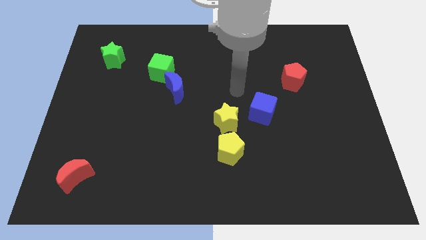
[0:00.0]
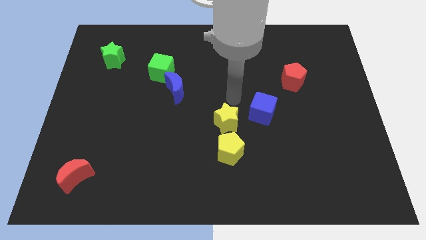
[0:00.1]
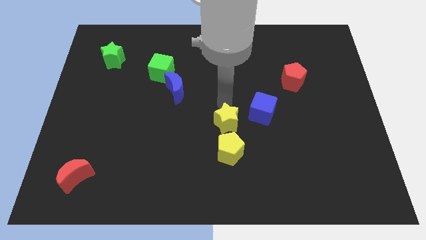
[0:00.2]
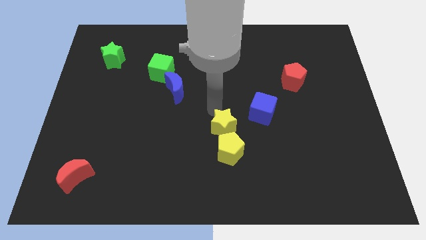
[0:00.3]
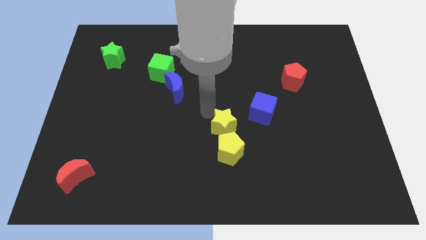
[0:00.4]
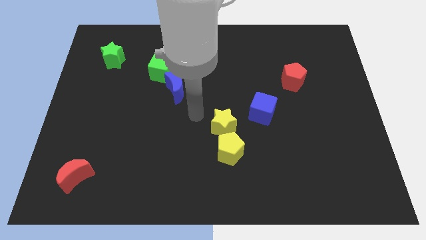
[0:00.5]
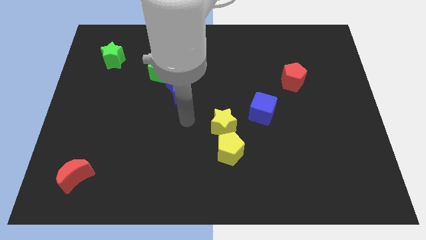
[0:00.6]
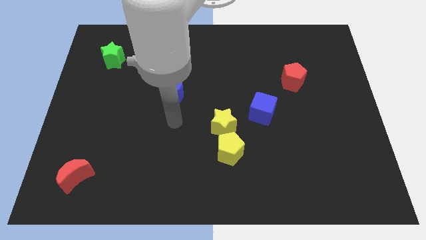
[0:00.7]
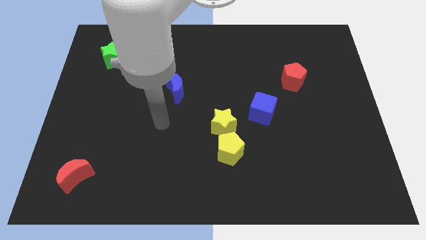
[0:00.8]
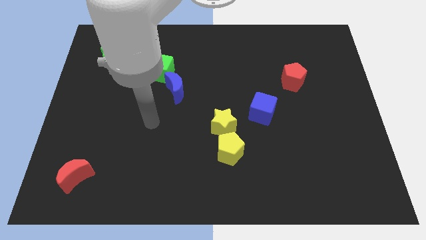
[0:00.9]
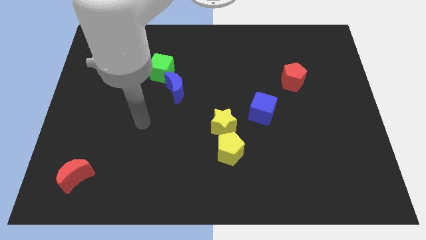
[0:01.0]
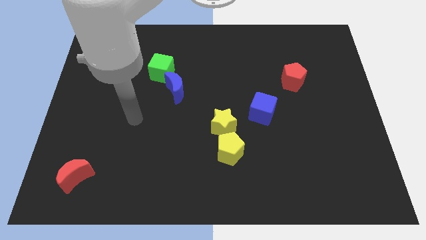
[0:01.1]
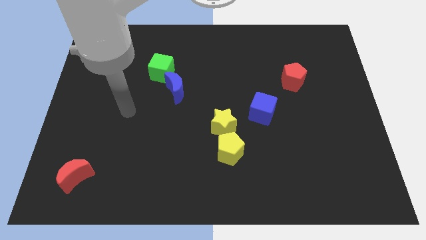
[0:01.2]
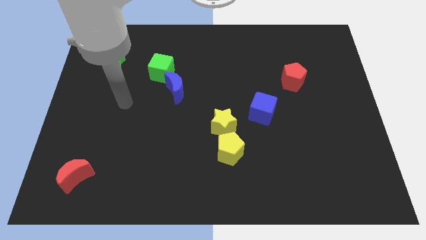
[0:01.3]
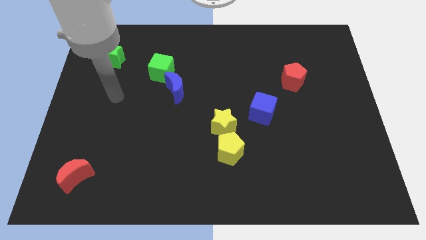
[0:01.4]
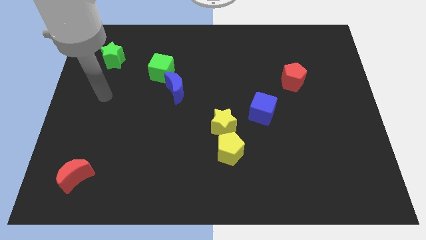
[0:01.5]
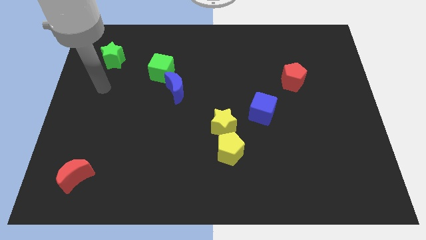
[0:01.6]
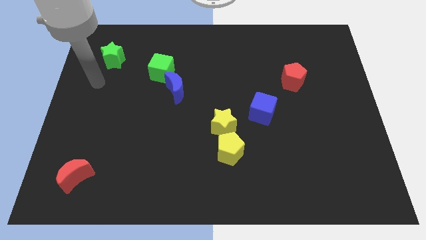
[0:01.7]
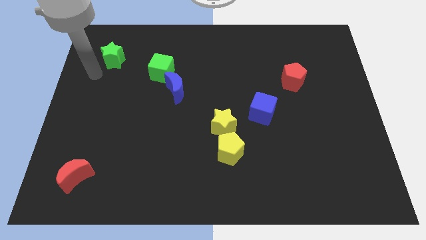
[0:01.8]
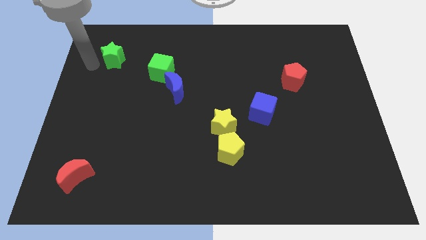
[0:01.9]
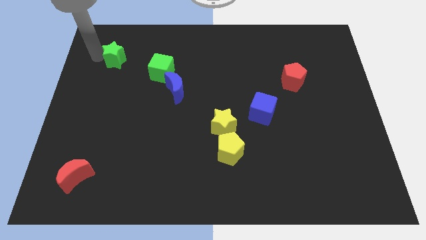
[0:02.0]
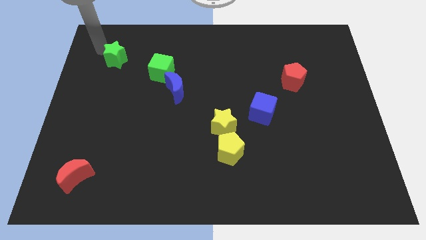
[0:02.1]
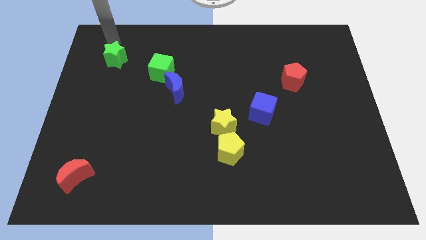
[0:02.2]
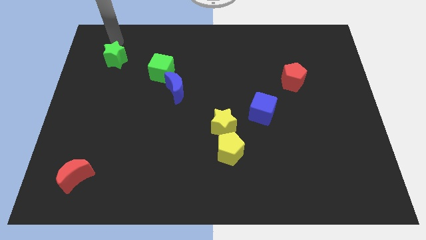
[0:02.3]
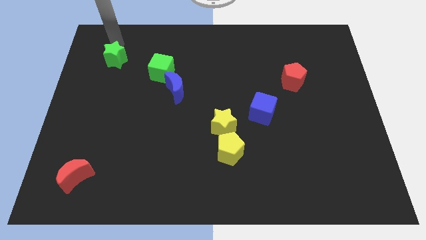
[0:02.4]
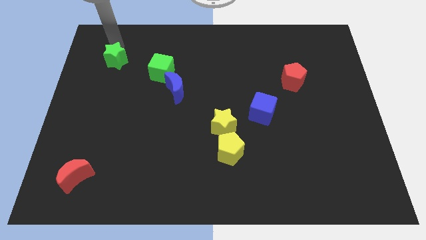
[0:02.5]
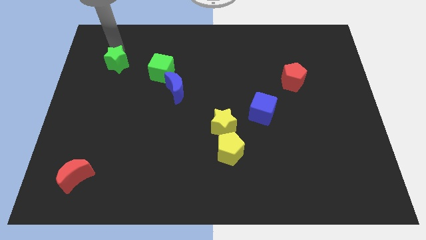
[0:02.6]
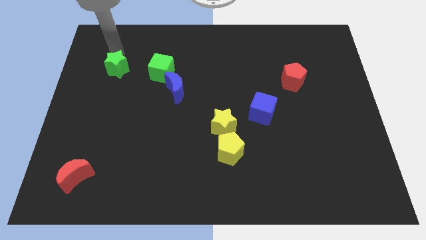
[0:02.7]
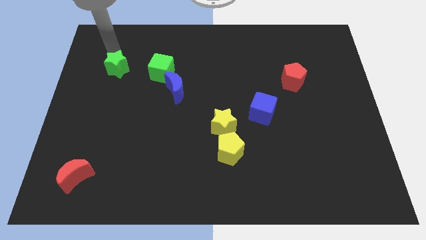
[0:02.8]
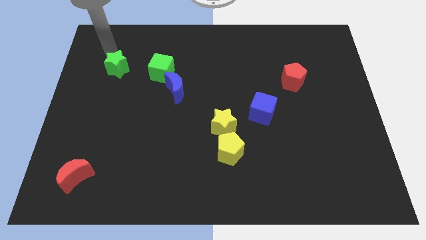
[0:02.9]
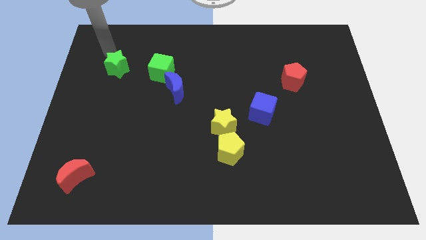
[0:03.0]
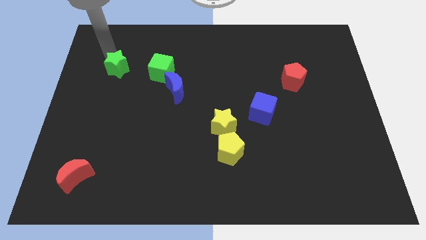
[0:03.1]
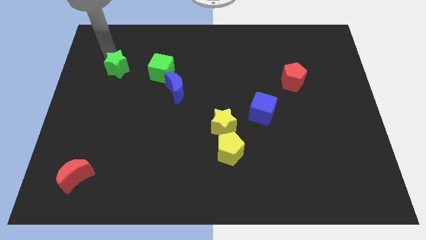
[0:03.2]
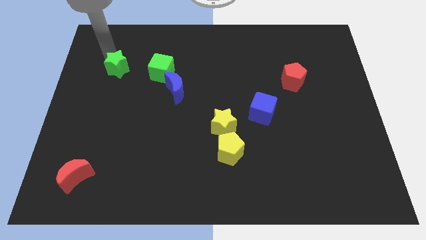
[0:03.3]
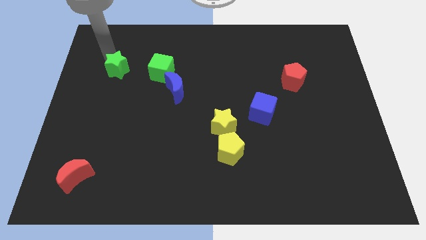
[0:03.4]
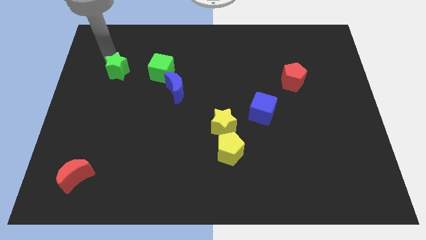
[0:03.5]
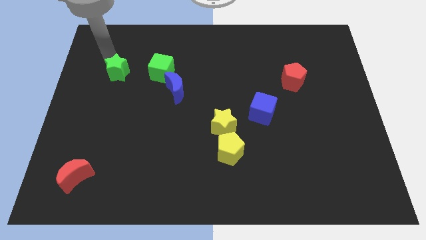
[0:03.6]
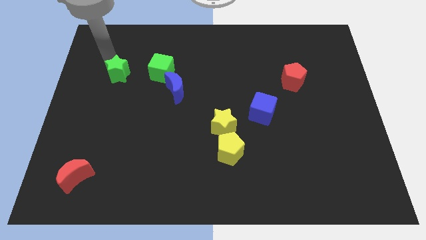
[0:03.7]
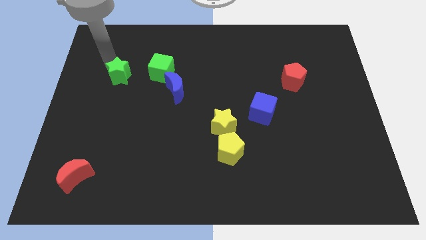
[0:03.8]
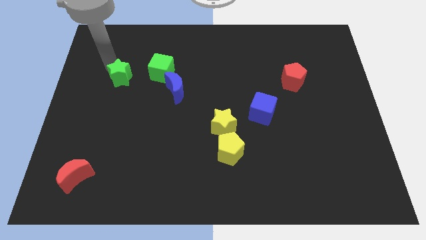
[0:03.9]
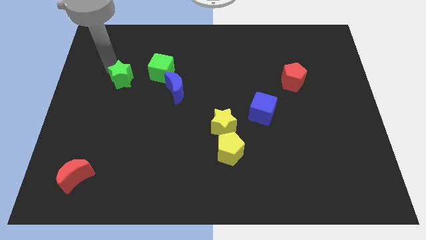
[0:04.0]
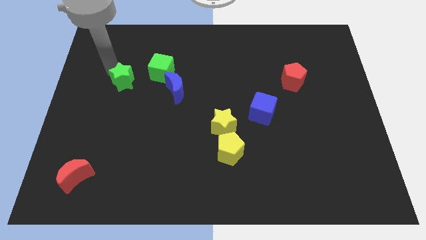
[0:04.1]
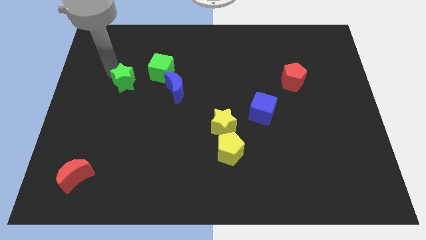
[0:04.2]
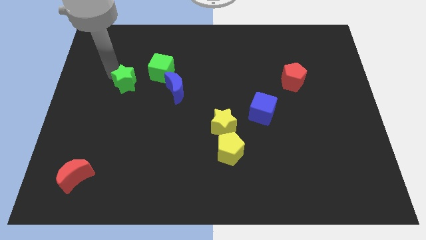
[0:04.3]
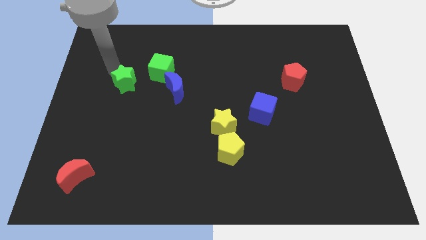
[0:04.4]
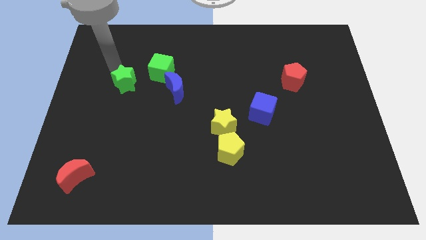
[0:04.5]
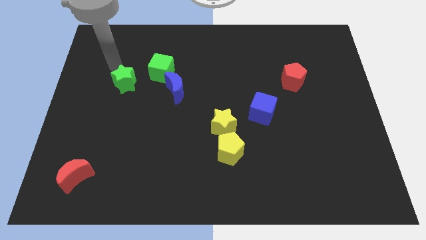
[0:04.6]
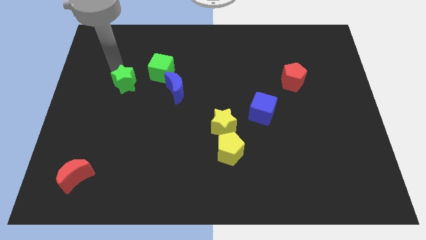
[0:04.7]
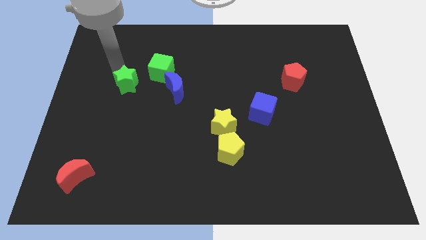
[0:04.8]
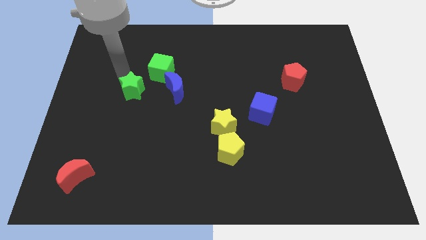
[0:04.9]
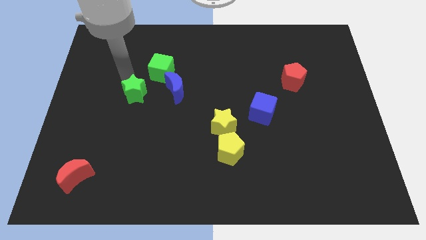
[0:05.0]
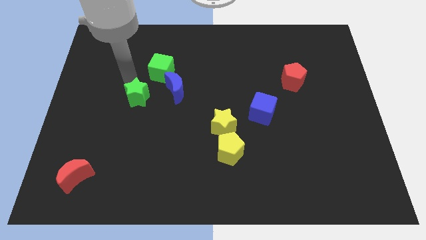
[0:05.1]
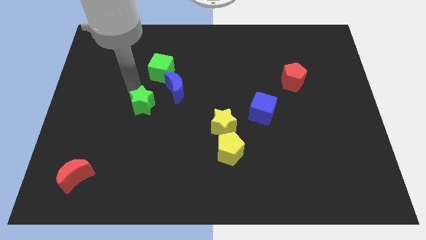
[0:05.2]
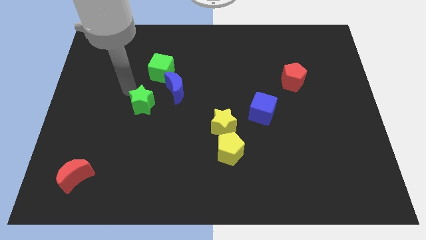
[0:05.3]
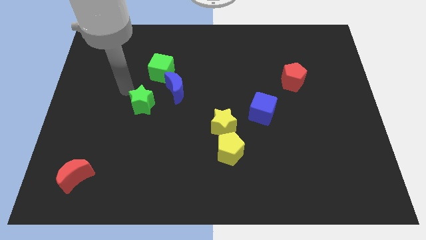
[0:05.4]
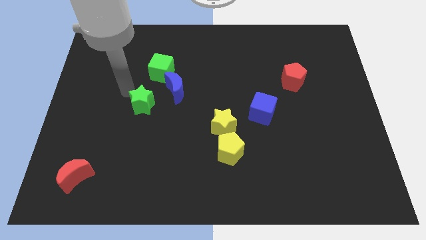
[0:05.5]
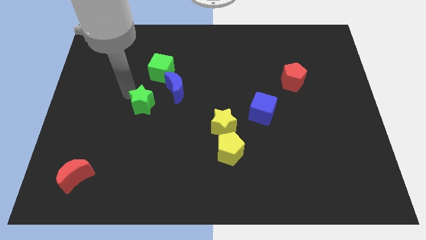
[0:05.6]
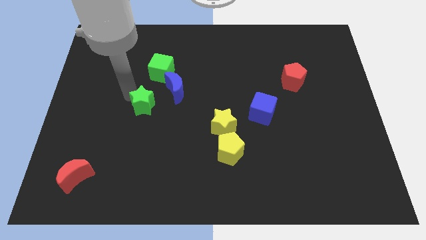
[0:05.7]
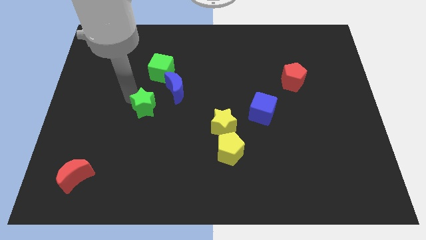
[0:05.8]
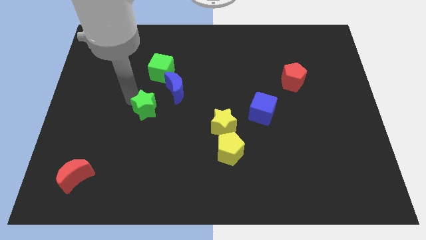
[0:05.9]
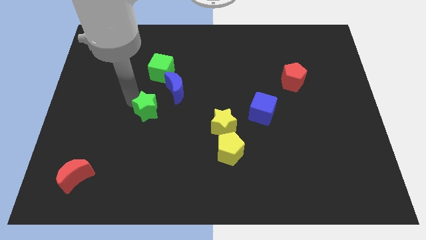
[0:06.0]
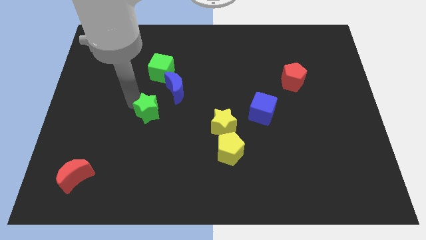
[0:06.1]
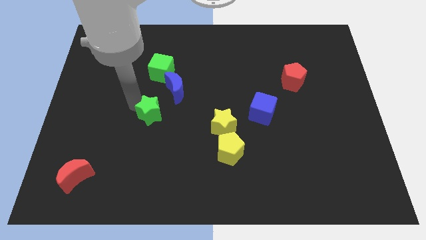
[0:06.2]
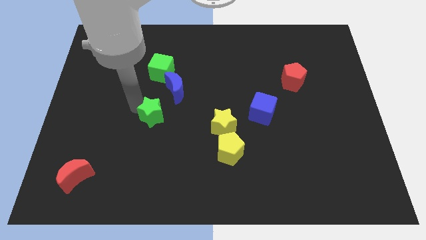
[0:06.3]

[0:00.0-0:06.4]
move the green star to the bottom of the blue moon

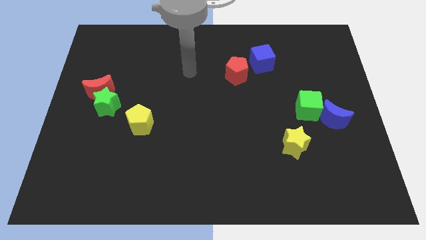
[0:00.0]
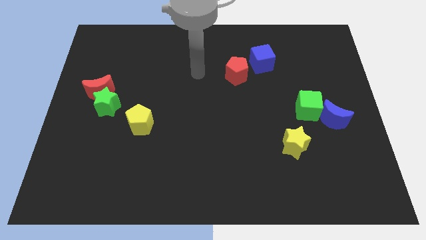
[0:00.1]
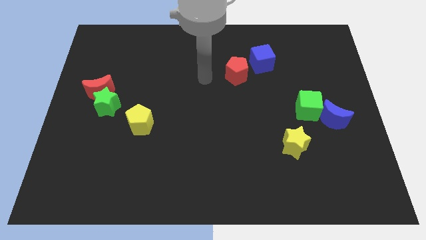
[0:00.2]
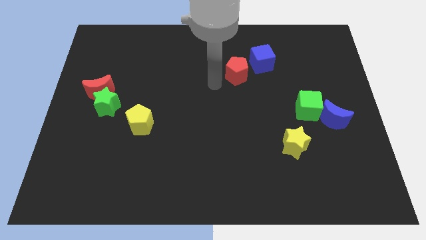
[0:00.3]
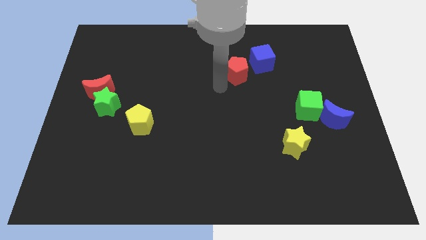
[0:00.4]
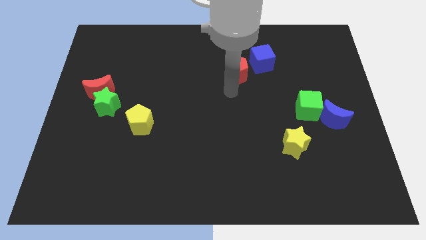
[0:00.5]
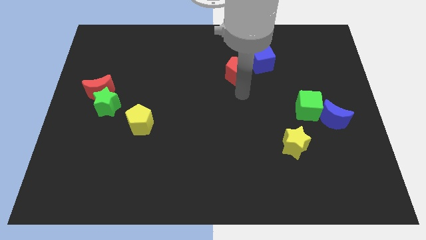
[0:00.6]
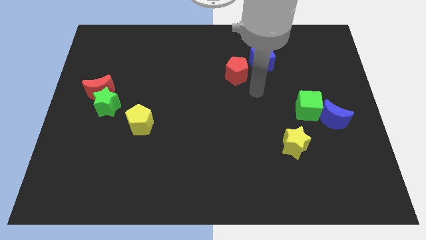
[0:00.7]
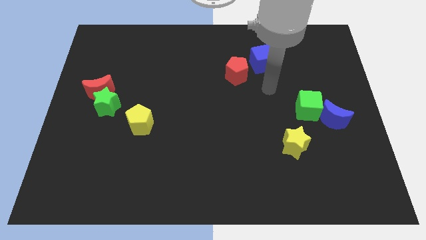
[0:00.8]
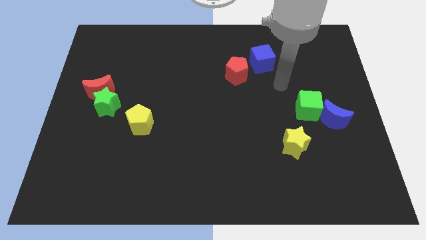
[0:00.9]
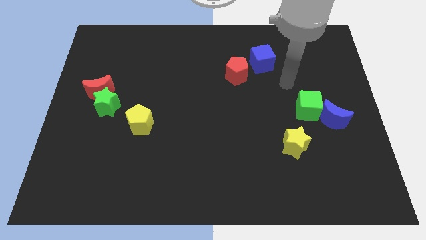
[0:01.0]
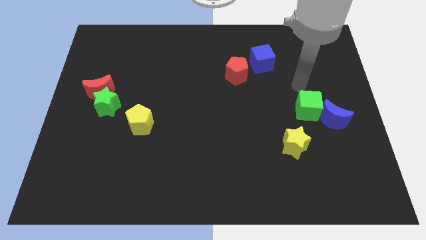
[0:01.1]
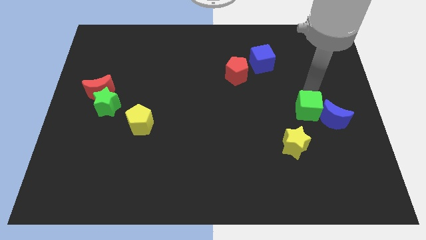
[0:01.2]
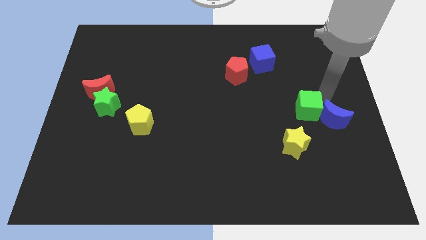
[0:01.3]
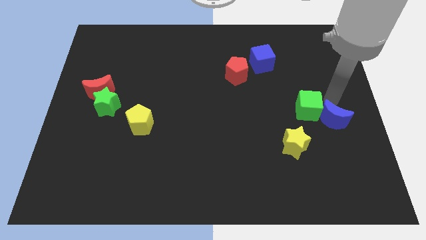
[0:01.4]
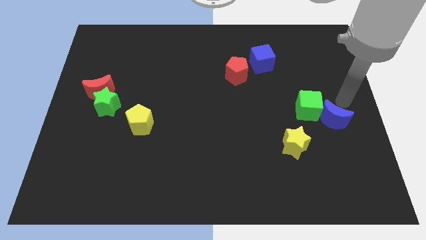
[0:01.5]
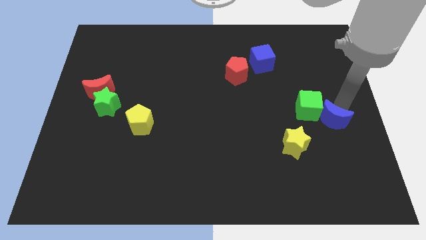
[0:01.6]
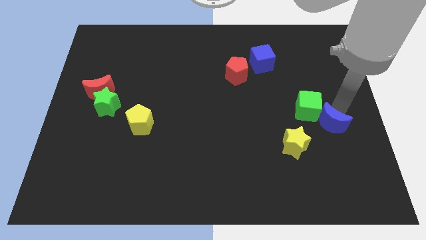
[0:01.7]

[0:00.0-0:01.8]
slide the blue moon to the bottom of the green cube

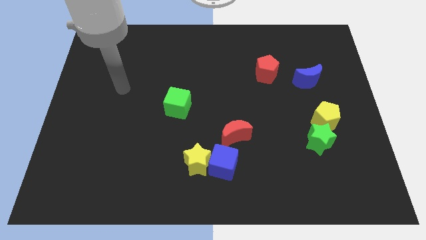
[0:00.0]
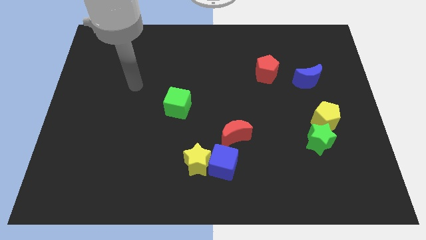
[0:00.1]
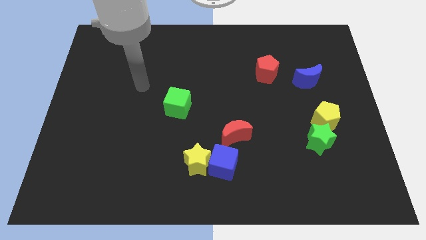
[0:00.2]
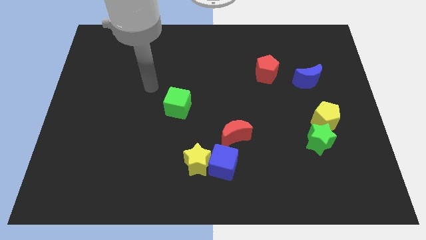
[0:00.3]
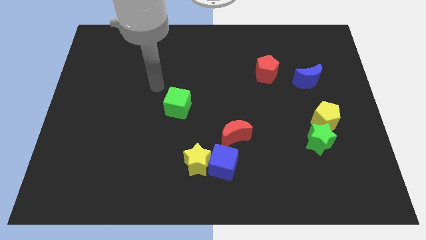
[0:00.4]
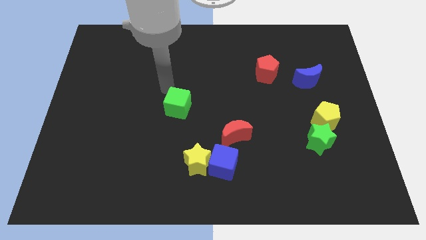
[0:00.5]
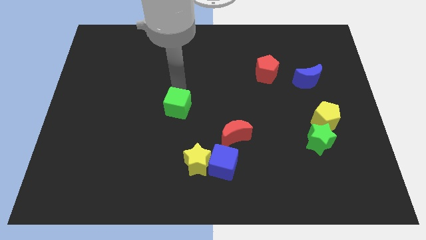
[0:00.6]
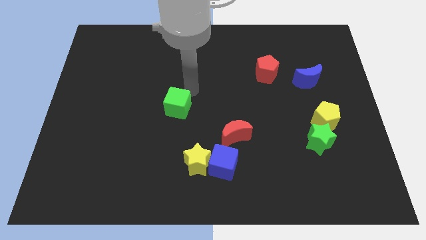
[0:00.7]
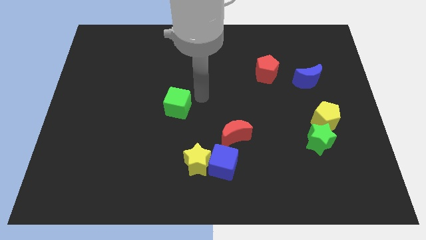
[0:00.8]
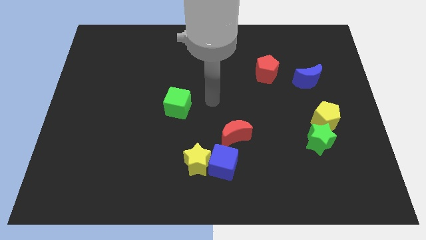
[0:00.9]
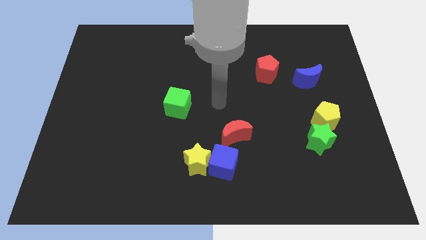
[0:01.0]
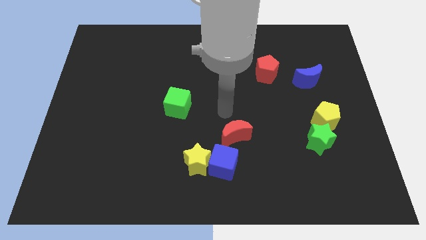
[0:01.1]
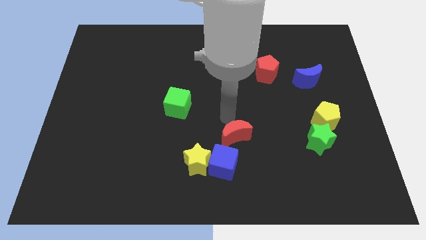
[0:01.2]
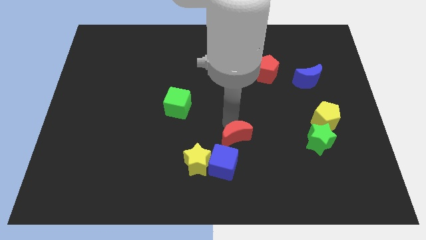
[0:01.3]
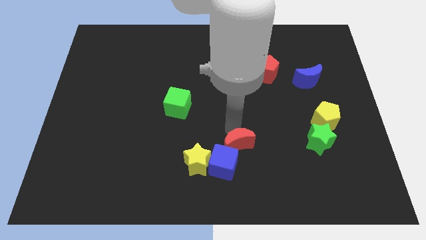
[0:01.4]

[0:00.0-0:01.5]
slide the red moon right of the yellow star
